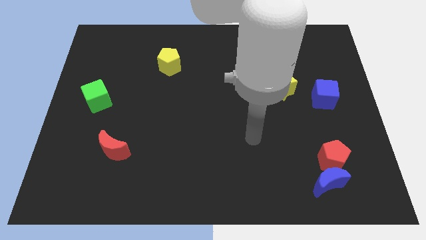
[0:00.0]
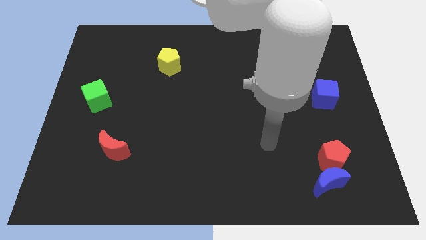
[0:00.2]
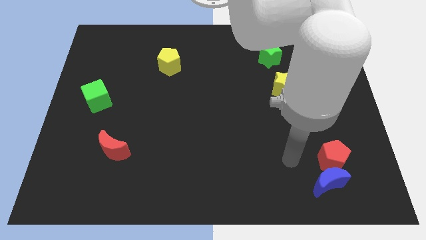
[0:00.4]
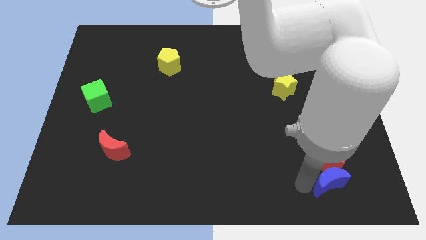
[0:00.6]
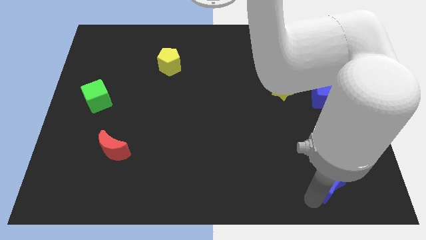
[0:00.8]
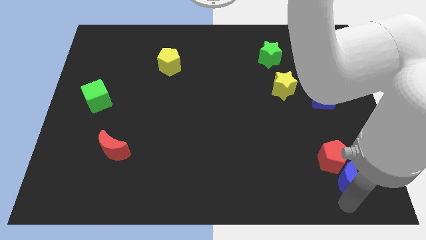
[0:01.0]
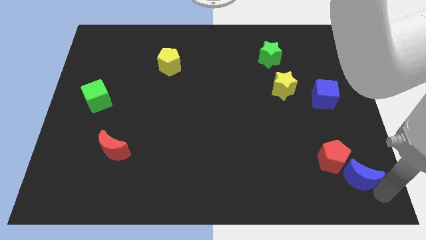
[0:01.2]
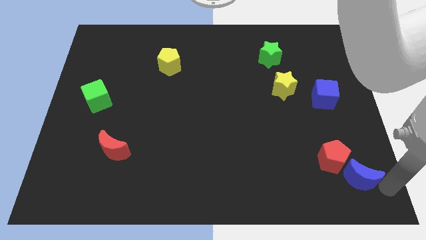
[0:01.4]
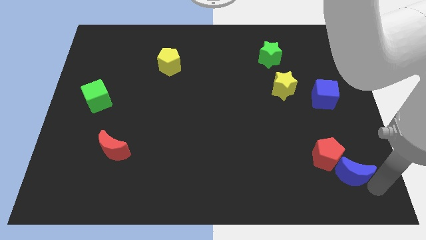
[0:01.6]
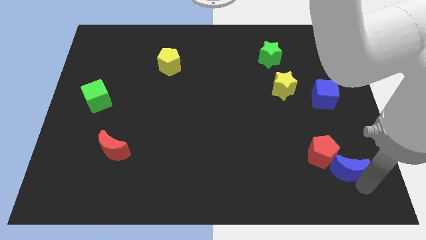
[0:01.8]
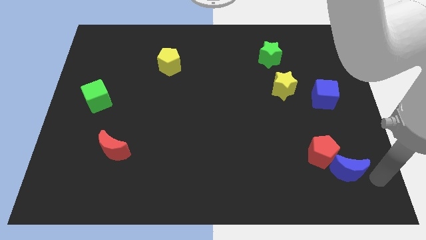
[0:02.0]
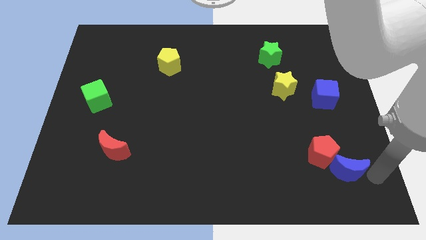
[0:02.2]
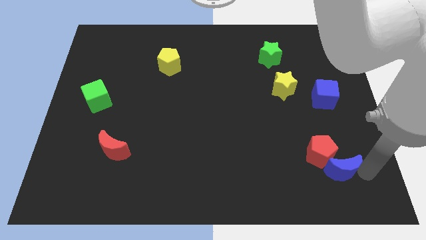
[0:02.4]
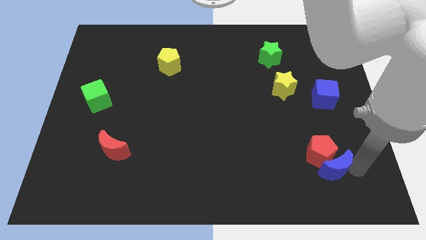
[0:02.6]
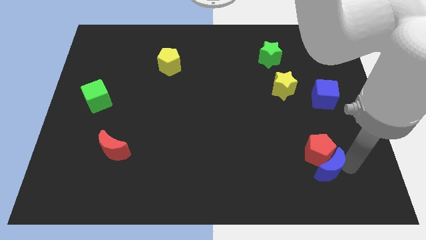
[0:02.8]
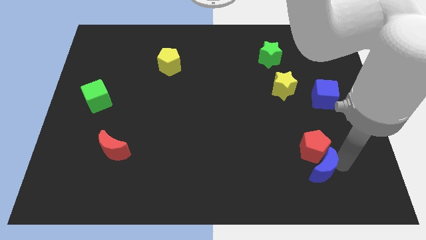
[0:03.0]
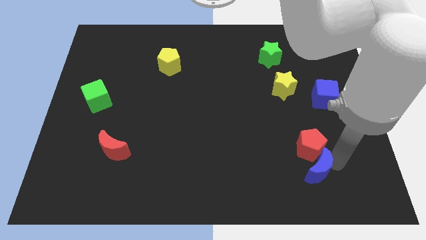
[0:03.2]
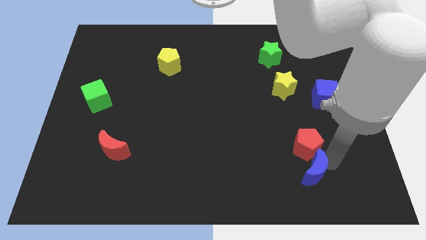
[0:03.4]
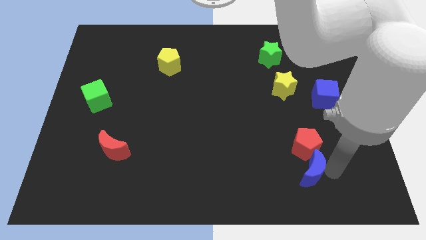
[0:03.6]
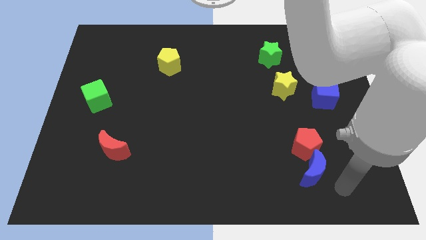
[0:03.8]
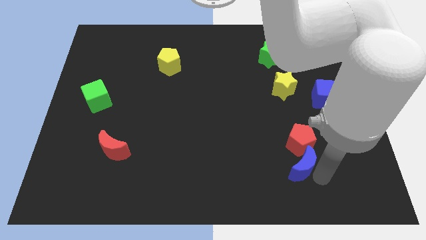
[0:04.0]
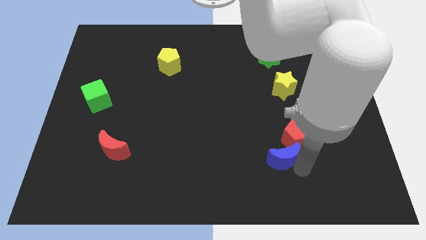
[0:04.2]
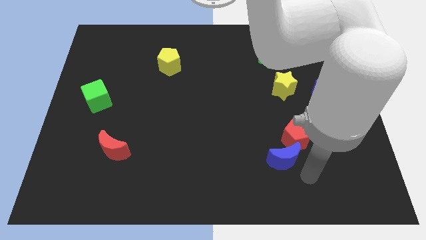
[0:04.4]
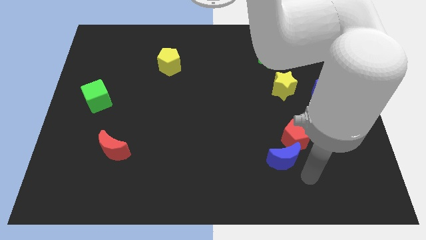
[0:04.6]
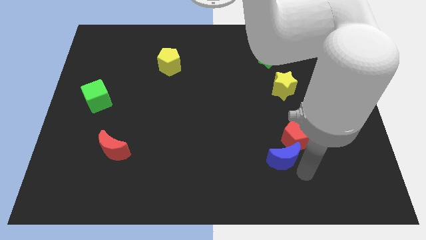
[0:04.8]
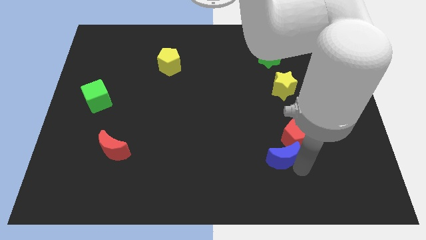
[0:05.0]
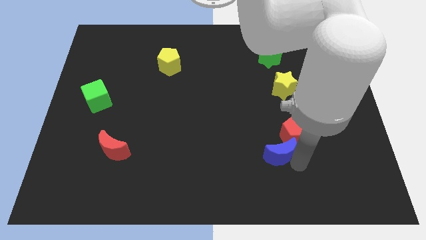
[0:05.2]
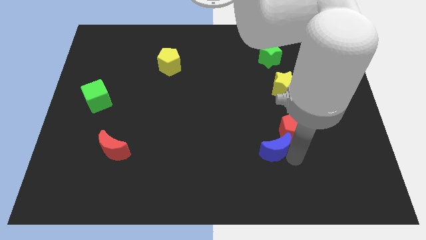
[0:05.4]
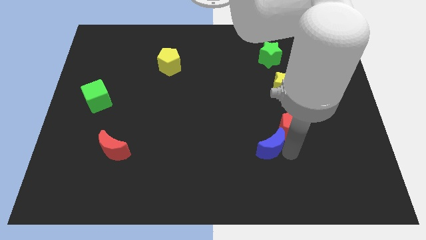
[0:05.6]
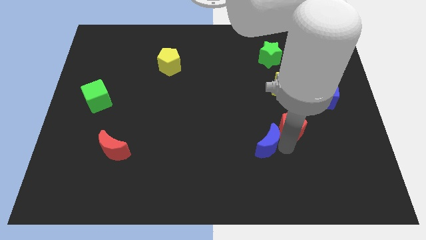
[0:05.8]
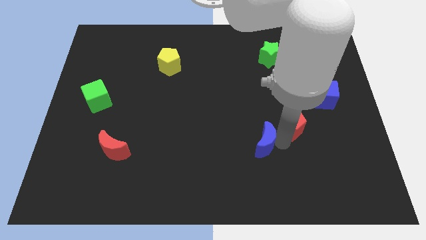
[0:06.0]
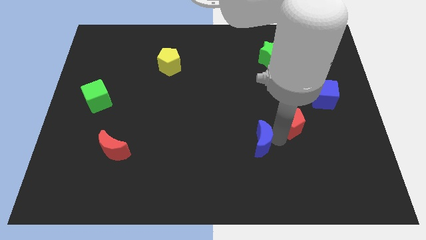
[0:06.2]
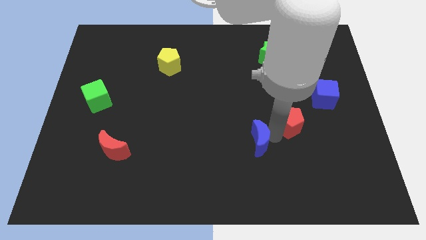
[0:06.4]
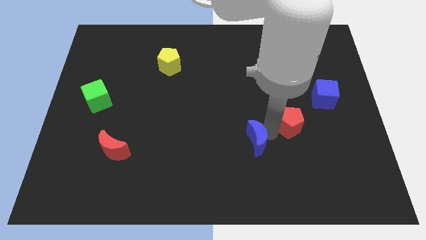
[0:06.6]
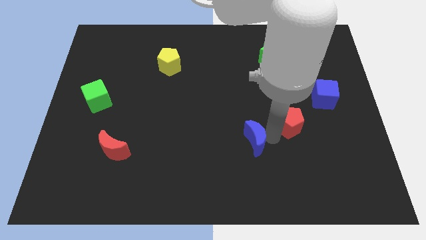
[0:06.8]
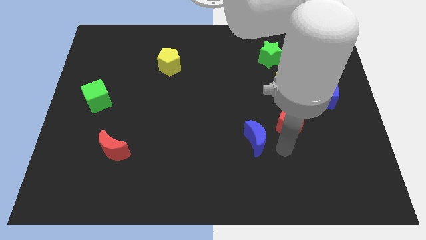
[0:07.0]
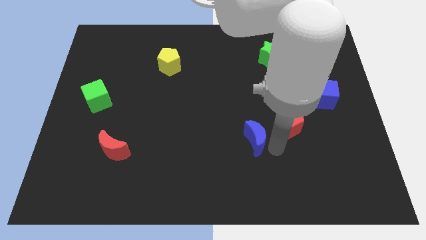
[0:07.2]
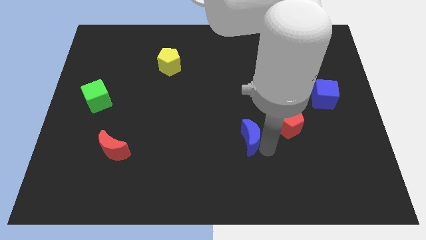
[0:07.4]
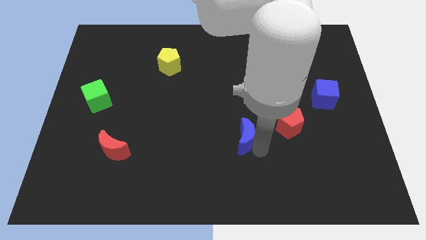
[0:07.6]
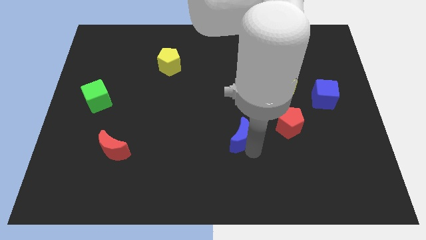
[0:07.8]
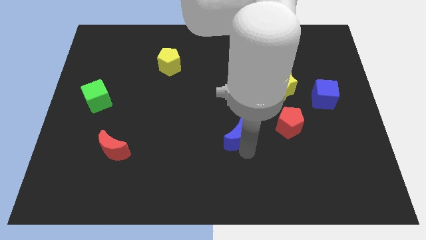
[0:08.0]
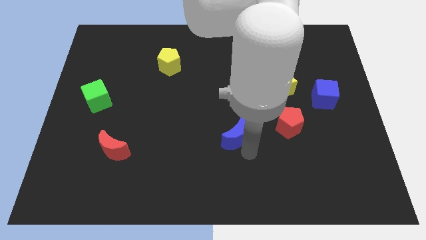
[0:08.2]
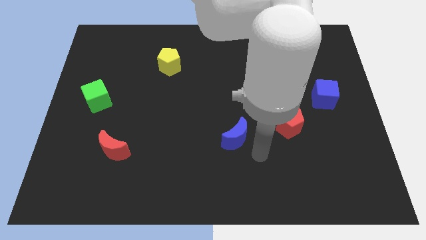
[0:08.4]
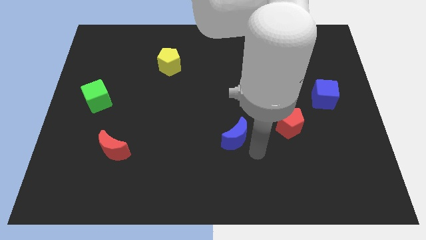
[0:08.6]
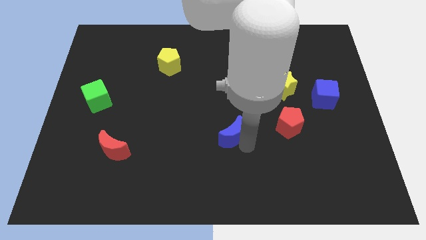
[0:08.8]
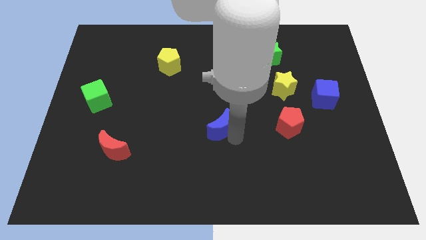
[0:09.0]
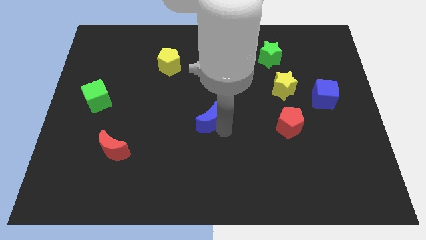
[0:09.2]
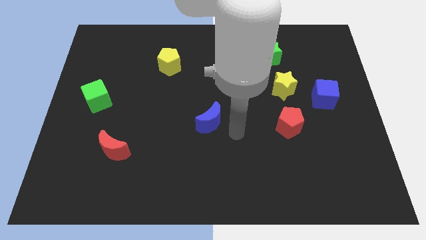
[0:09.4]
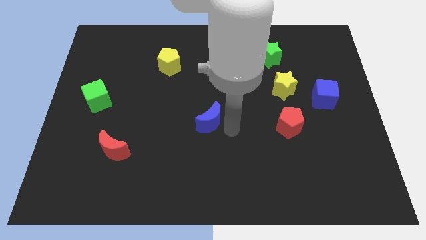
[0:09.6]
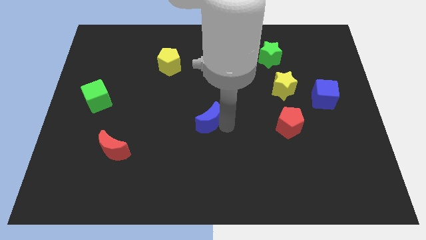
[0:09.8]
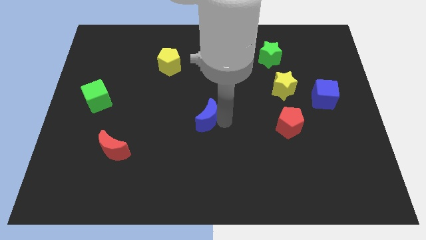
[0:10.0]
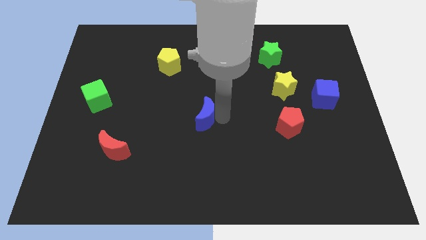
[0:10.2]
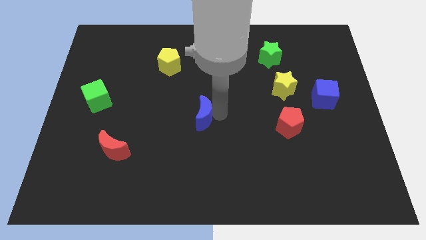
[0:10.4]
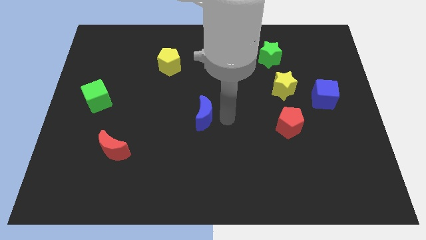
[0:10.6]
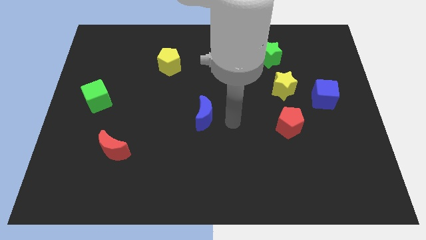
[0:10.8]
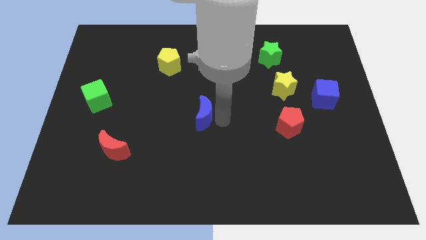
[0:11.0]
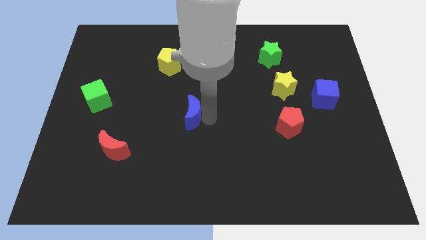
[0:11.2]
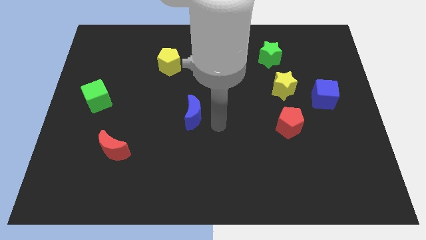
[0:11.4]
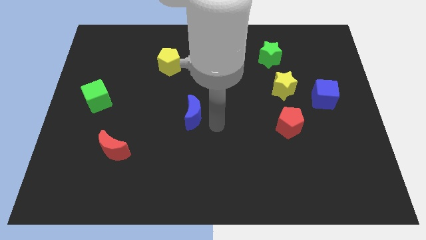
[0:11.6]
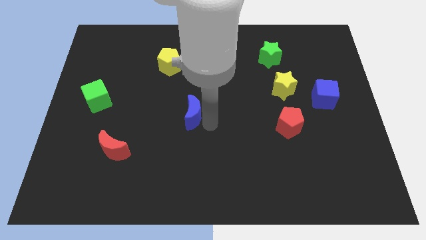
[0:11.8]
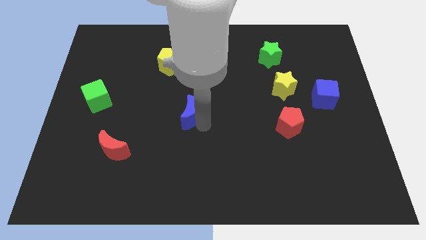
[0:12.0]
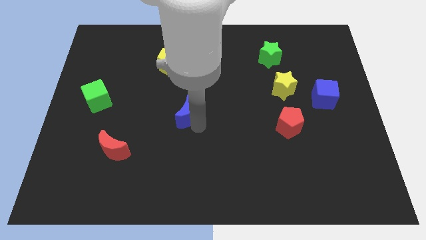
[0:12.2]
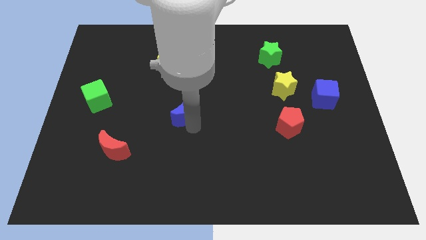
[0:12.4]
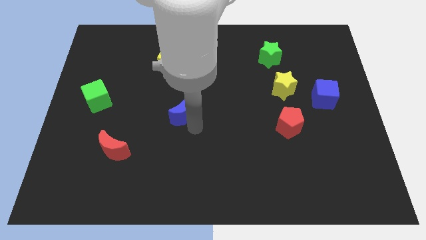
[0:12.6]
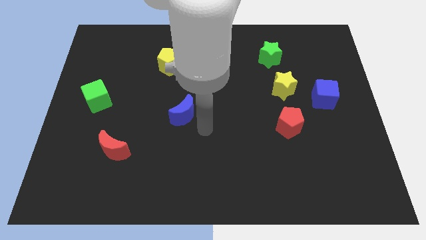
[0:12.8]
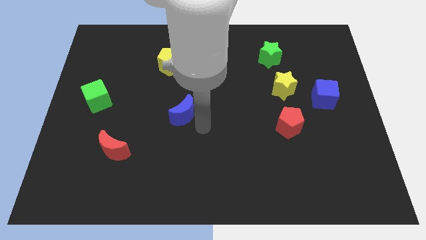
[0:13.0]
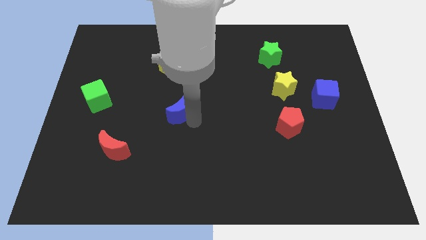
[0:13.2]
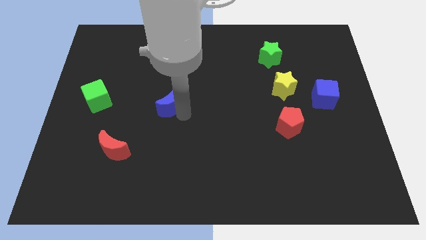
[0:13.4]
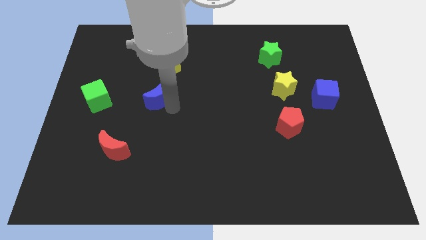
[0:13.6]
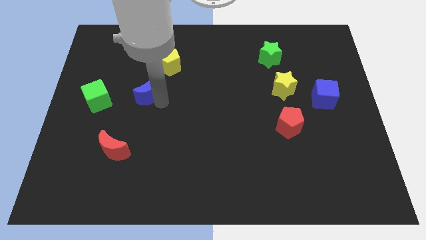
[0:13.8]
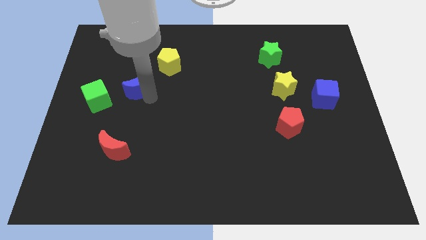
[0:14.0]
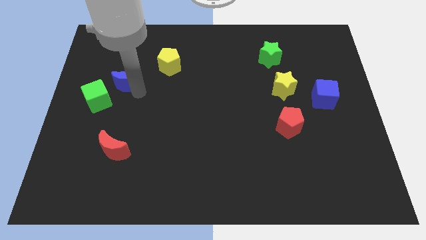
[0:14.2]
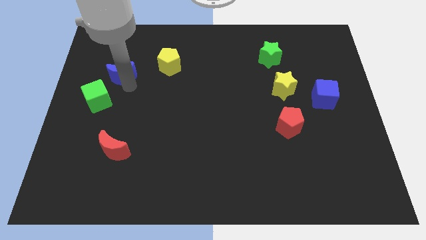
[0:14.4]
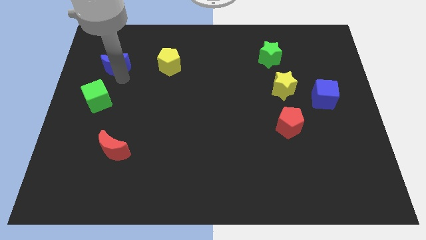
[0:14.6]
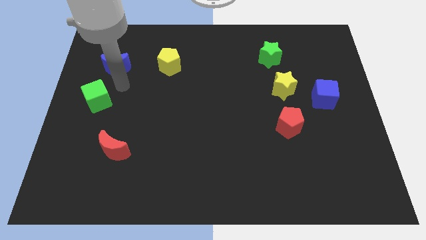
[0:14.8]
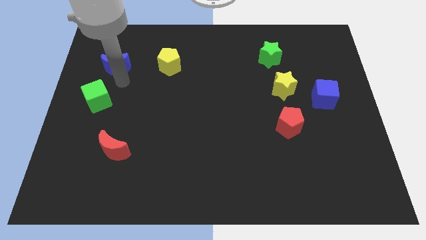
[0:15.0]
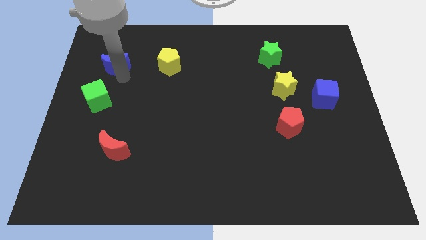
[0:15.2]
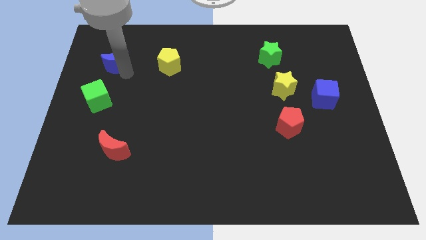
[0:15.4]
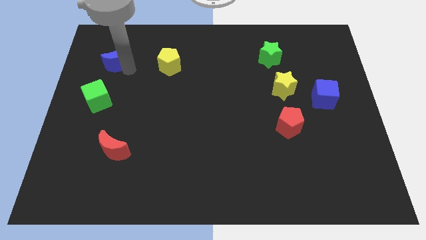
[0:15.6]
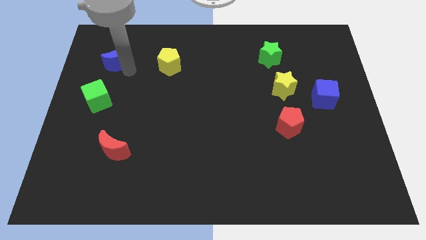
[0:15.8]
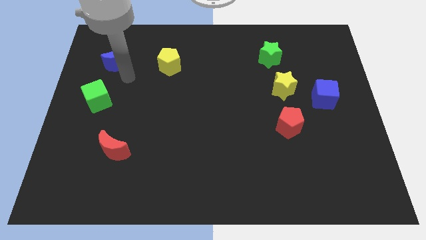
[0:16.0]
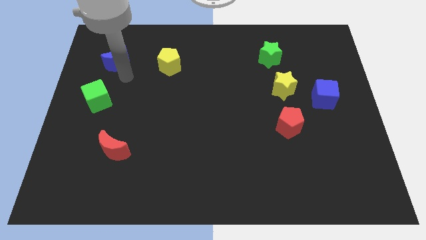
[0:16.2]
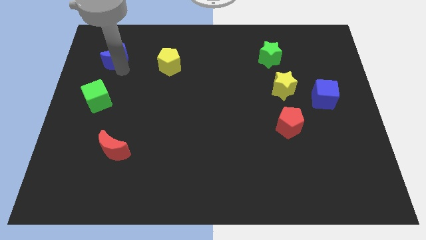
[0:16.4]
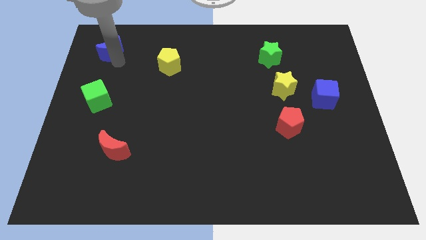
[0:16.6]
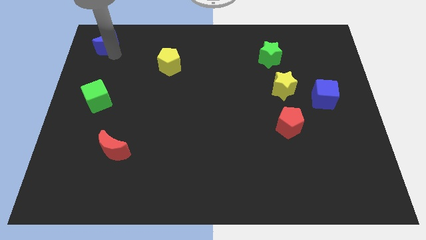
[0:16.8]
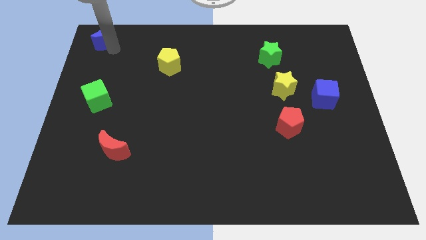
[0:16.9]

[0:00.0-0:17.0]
put the blue moon to the top left
